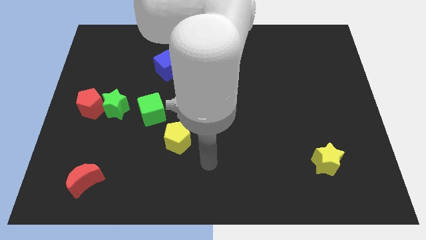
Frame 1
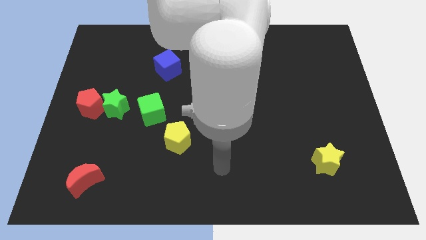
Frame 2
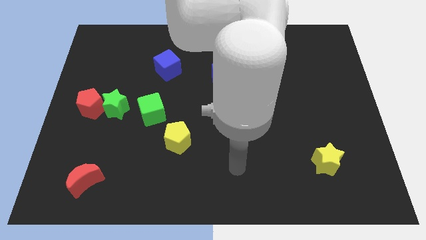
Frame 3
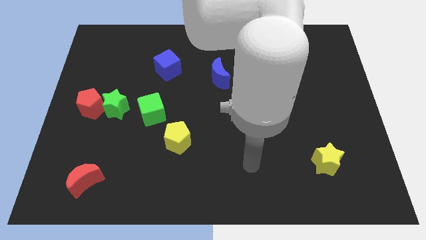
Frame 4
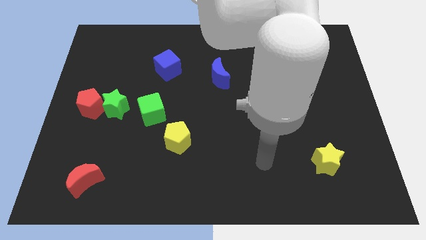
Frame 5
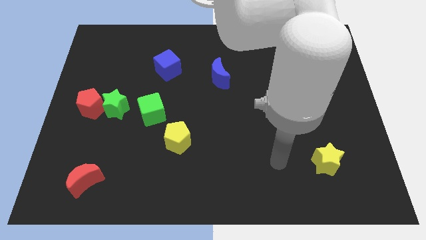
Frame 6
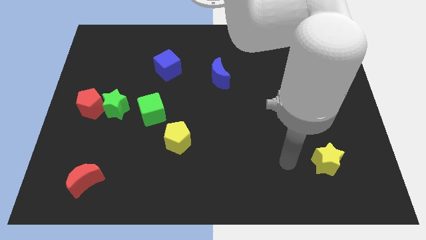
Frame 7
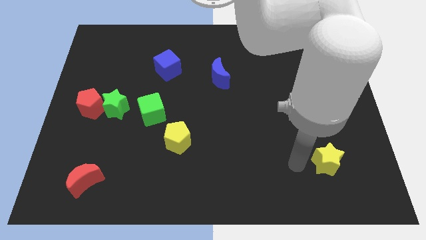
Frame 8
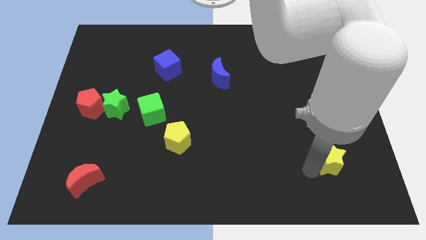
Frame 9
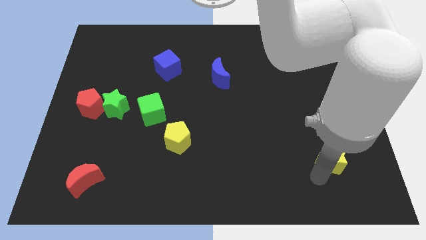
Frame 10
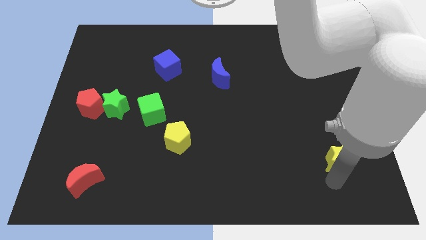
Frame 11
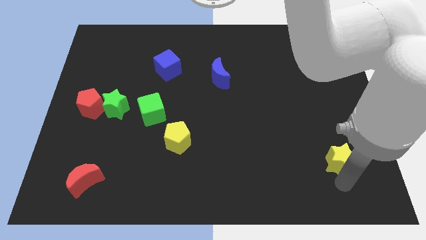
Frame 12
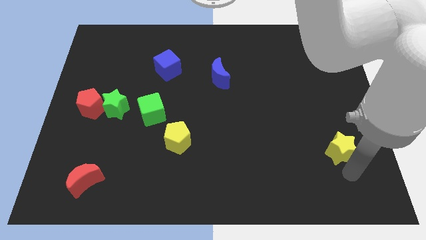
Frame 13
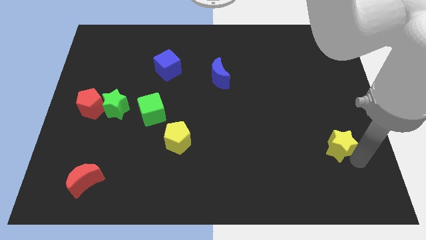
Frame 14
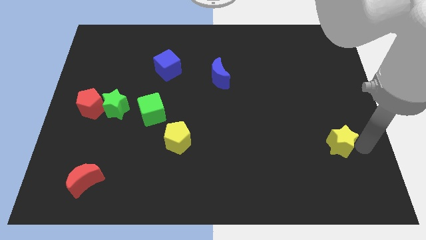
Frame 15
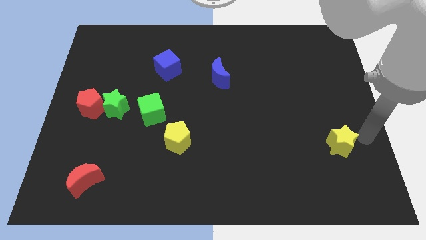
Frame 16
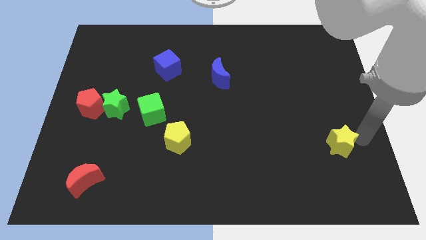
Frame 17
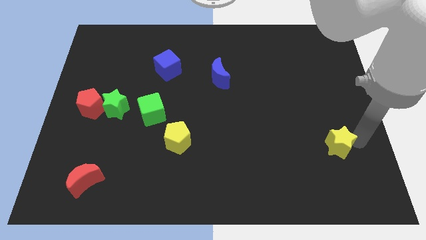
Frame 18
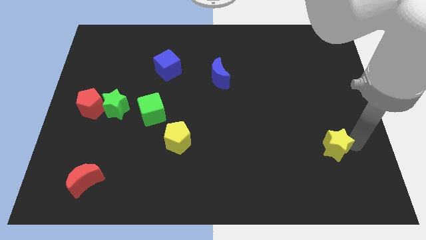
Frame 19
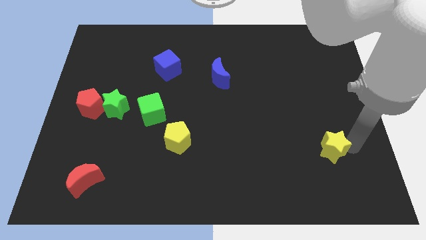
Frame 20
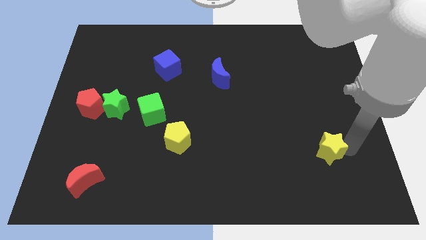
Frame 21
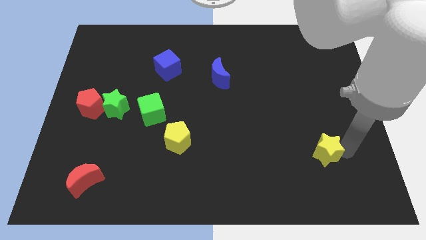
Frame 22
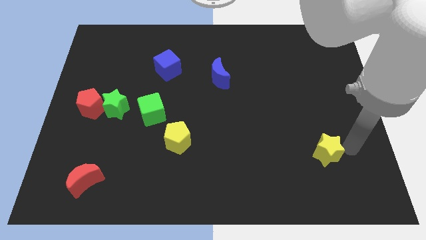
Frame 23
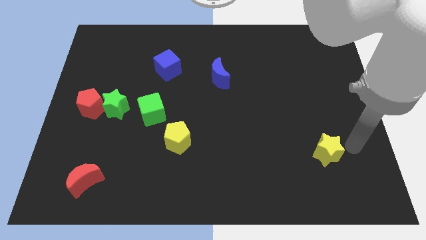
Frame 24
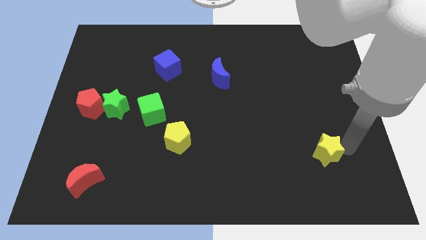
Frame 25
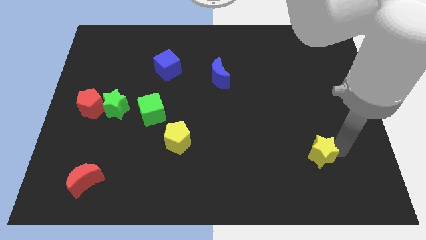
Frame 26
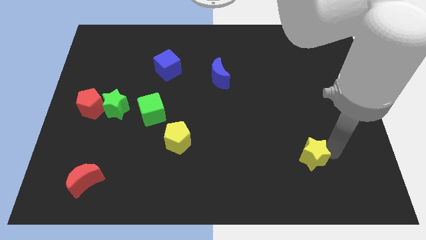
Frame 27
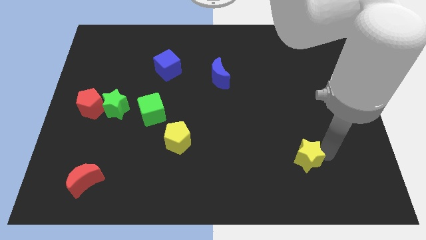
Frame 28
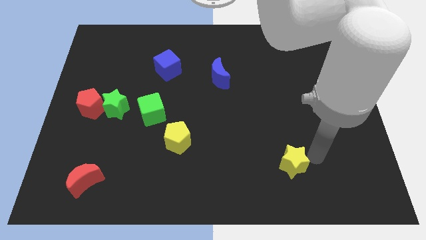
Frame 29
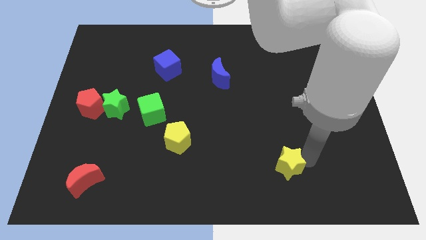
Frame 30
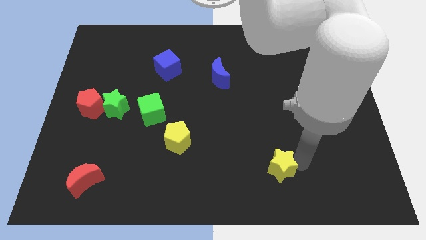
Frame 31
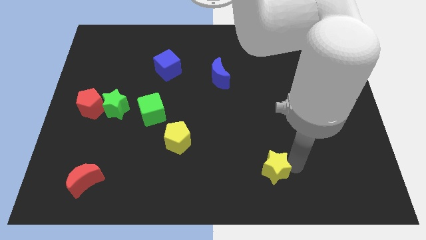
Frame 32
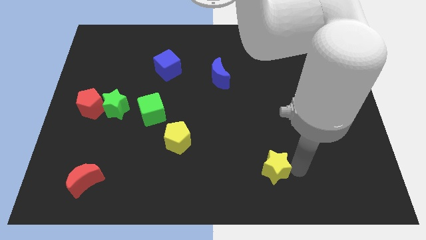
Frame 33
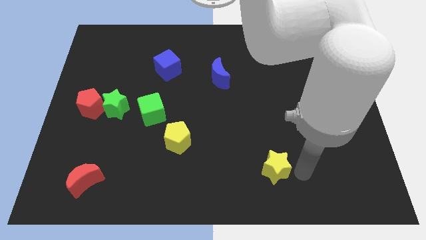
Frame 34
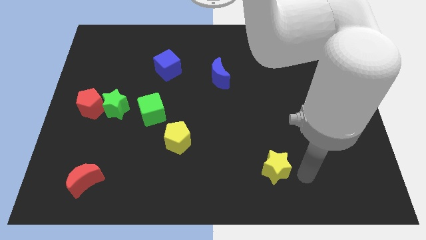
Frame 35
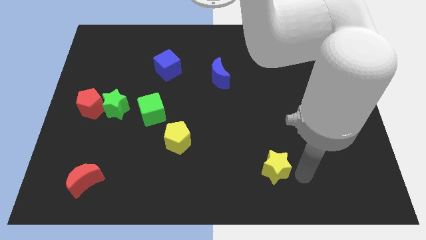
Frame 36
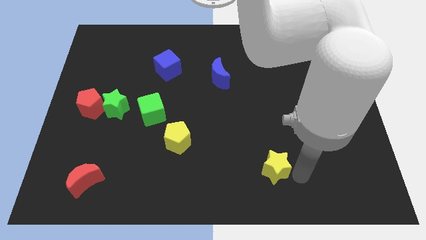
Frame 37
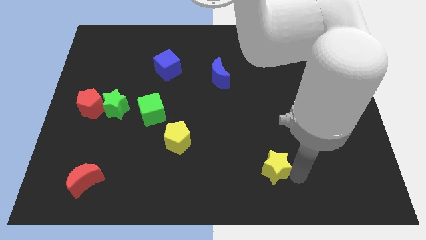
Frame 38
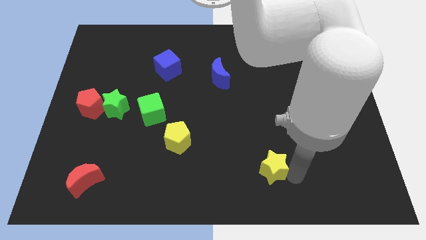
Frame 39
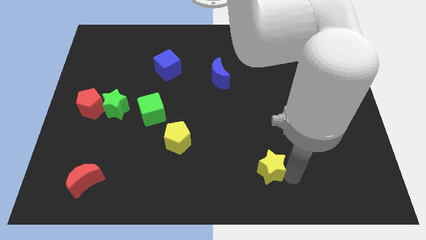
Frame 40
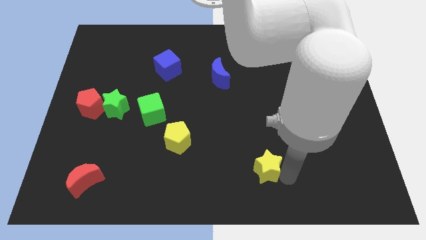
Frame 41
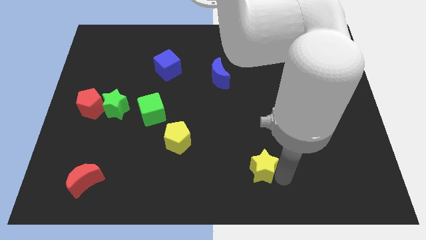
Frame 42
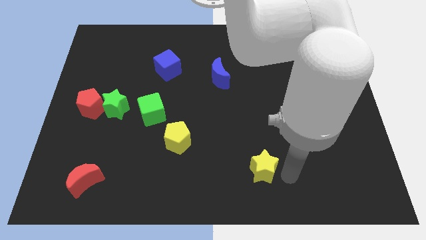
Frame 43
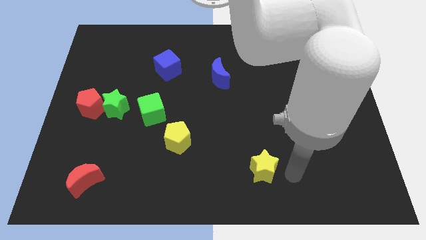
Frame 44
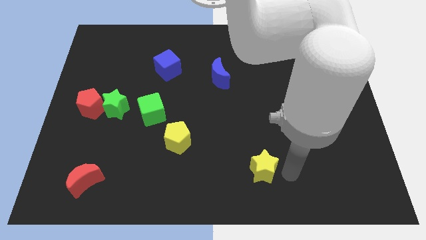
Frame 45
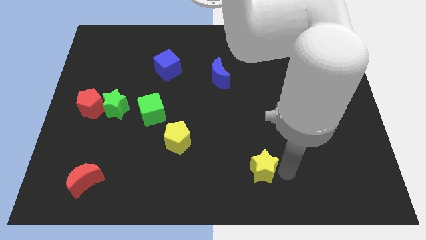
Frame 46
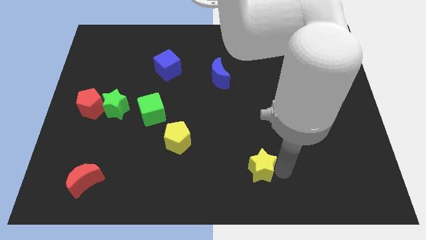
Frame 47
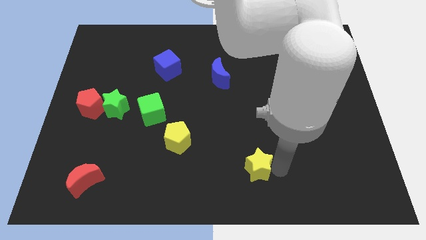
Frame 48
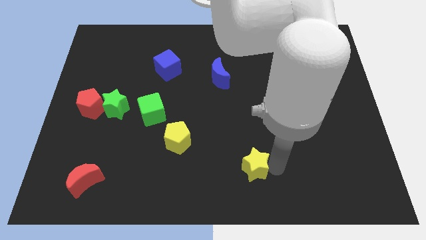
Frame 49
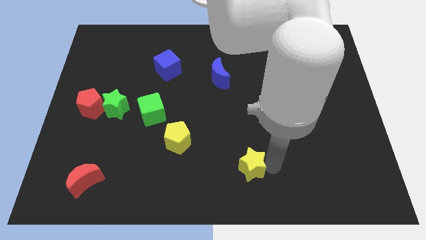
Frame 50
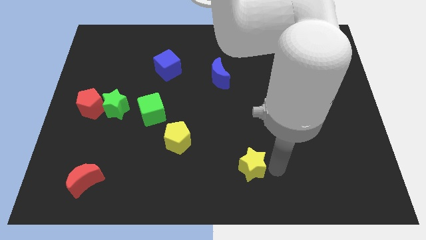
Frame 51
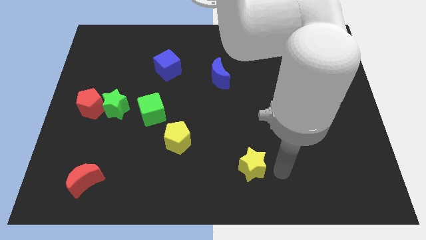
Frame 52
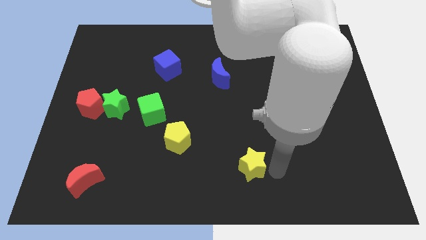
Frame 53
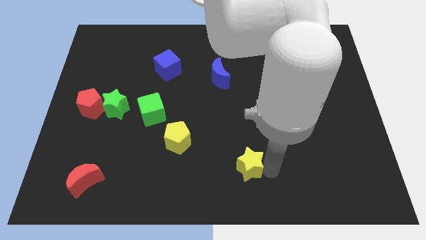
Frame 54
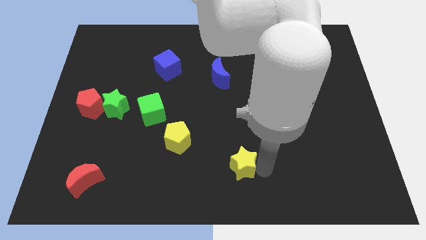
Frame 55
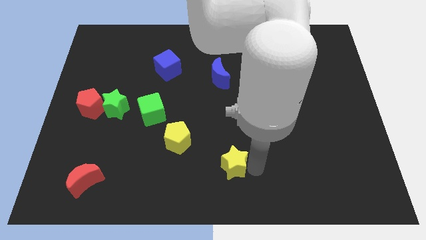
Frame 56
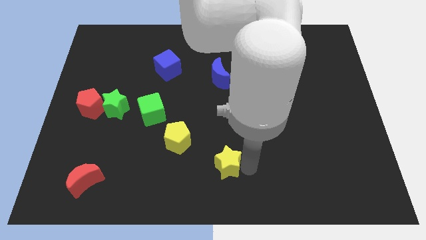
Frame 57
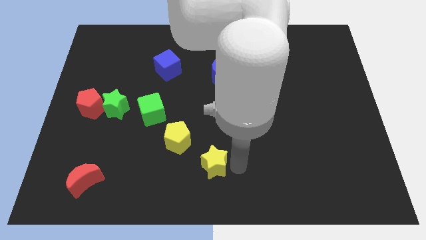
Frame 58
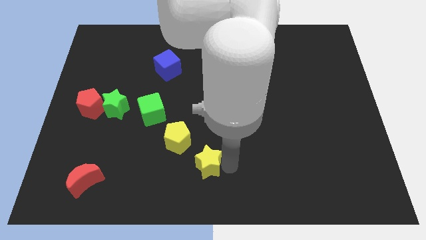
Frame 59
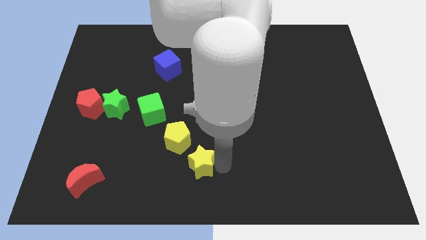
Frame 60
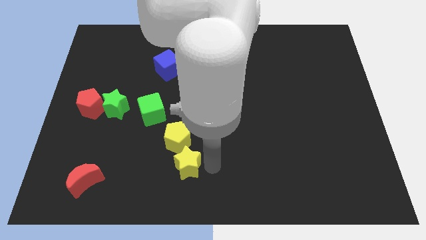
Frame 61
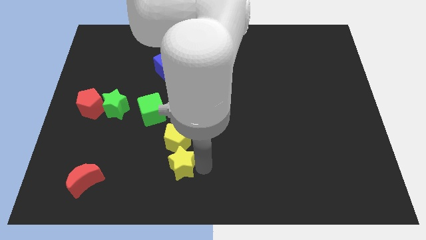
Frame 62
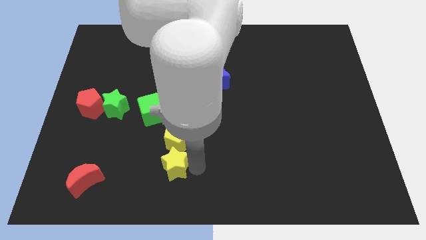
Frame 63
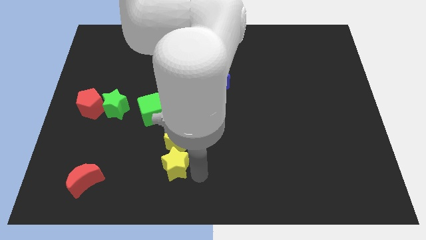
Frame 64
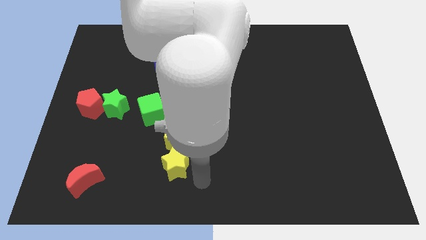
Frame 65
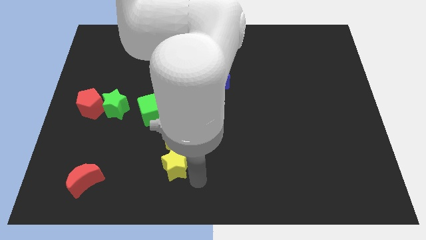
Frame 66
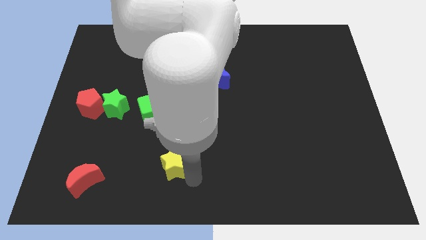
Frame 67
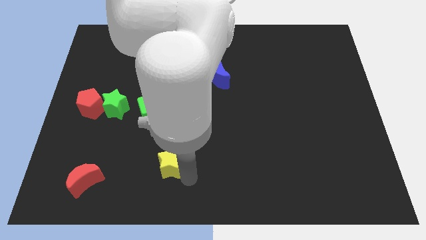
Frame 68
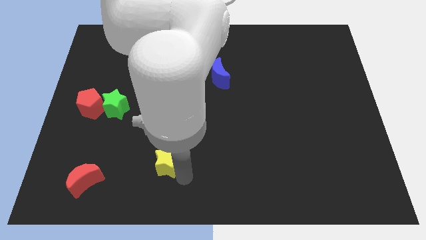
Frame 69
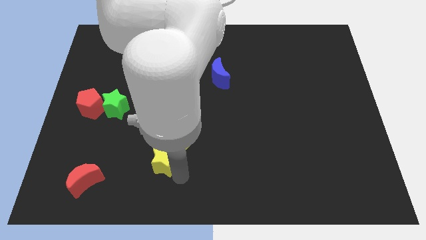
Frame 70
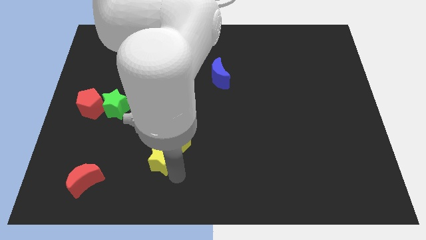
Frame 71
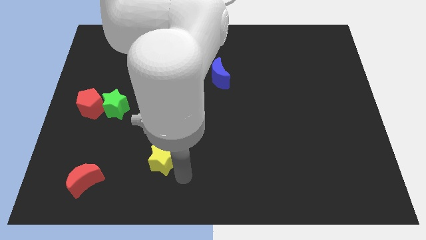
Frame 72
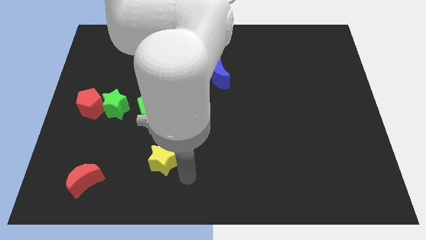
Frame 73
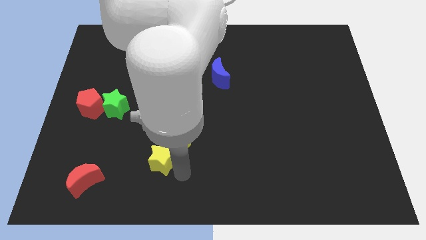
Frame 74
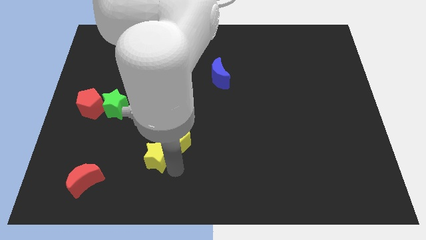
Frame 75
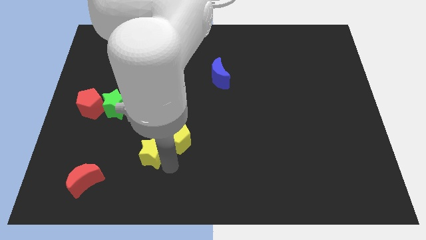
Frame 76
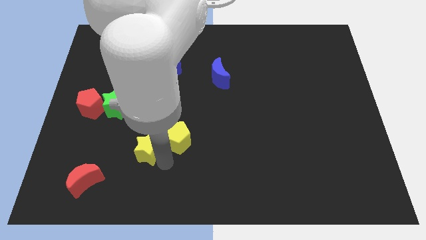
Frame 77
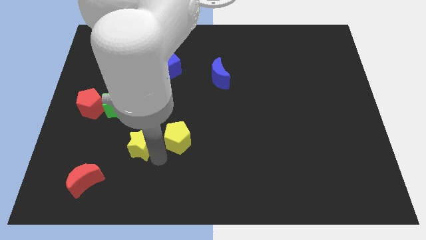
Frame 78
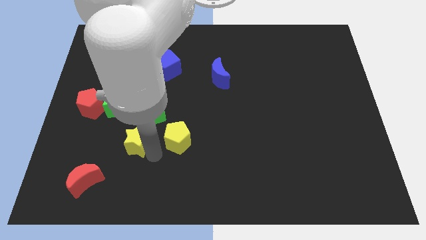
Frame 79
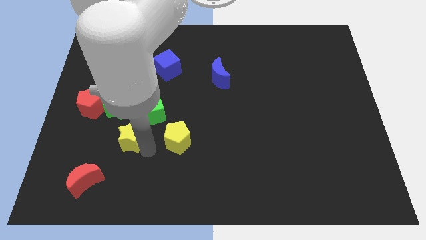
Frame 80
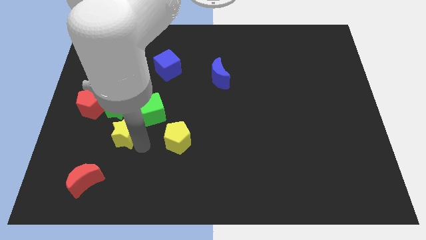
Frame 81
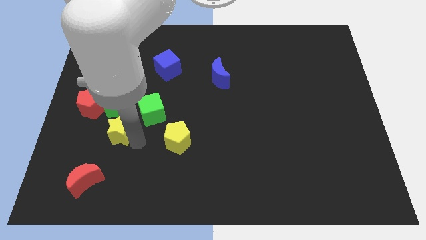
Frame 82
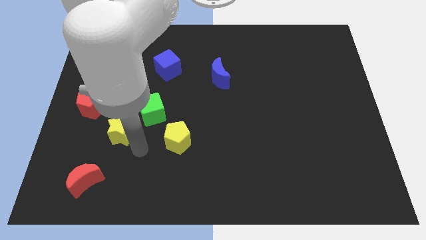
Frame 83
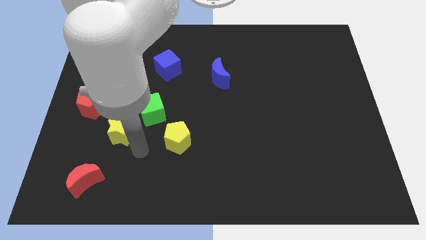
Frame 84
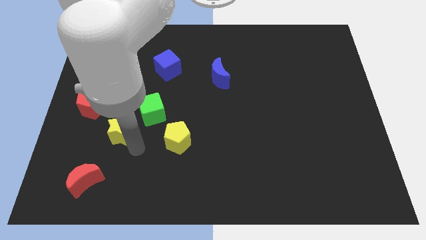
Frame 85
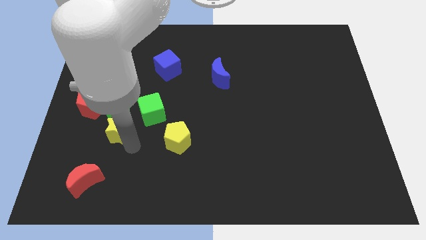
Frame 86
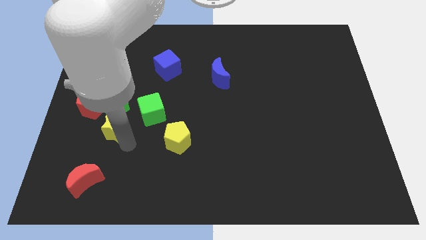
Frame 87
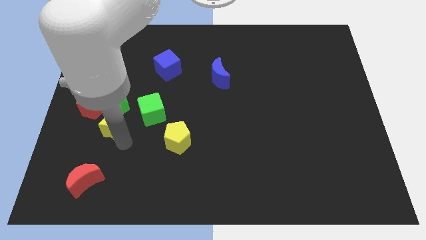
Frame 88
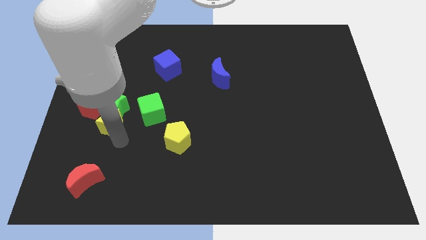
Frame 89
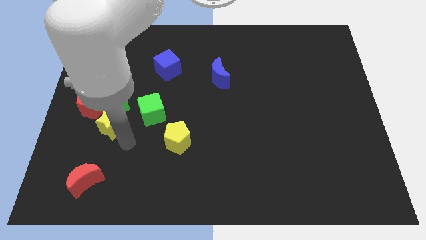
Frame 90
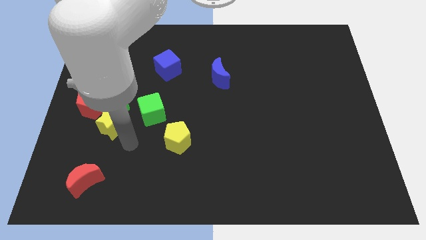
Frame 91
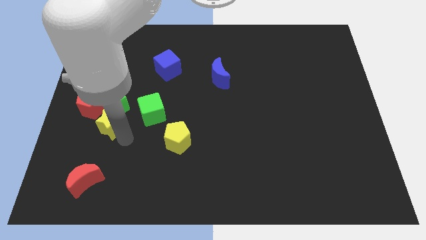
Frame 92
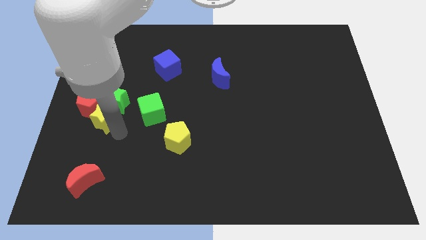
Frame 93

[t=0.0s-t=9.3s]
push the yellow star close to the red pentagon
